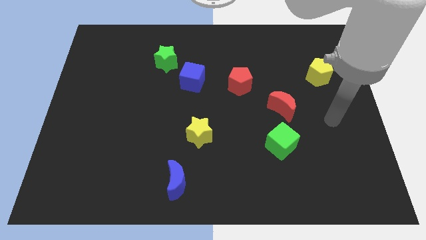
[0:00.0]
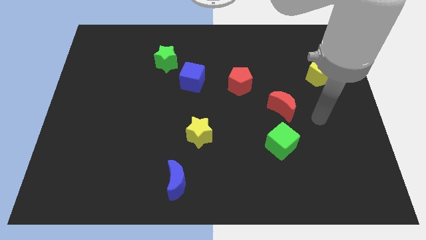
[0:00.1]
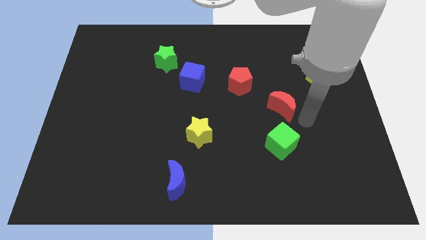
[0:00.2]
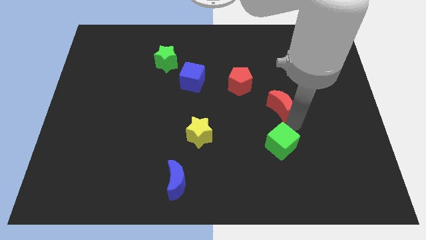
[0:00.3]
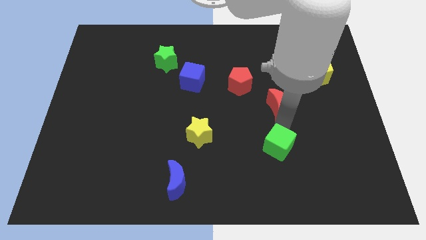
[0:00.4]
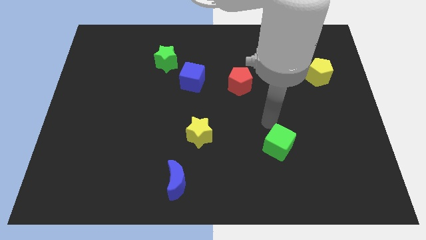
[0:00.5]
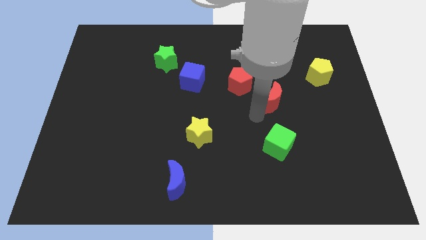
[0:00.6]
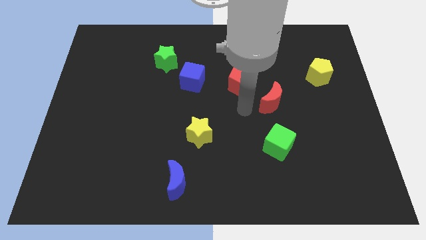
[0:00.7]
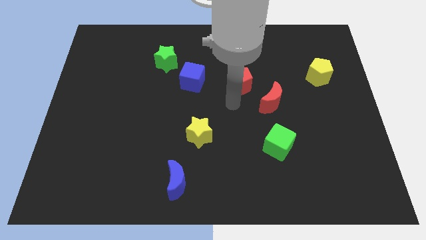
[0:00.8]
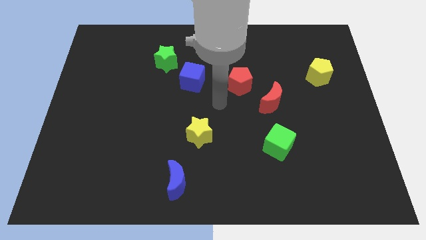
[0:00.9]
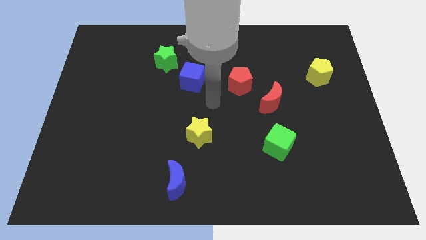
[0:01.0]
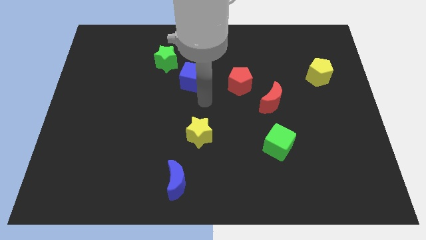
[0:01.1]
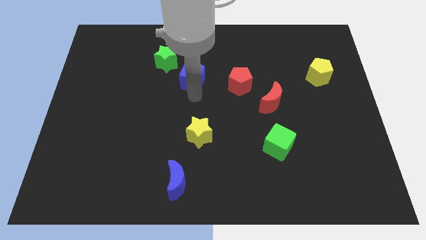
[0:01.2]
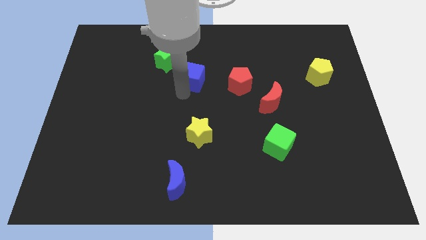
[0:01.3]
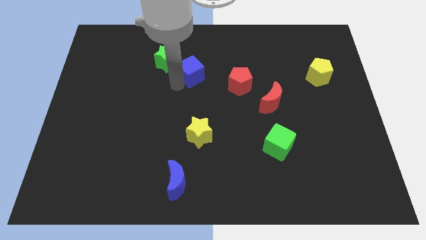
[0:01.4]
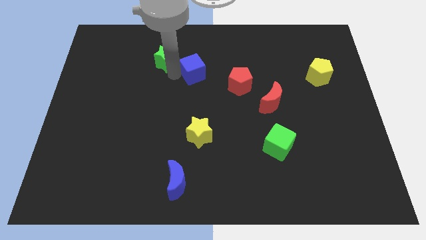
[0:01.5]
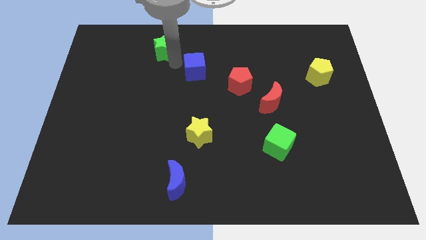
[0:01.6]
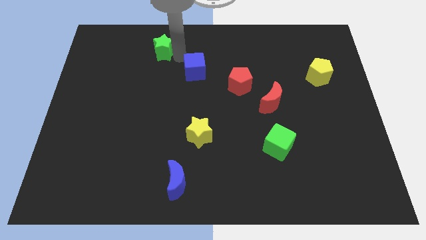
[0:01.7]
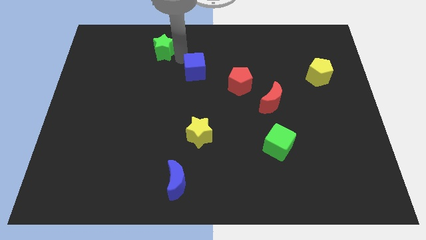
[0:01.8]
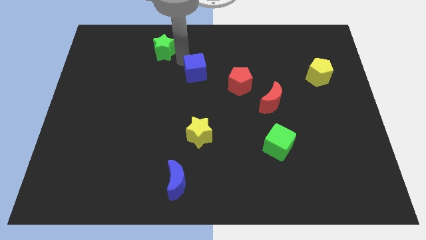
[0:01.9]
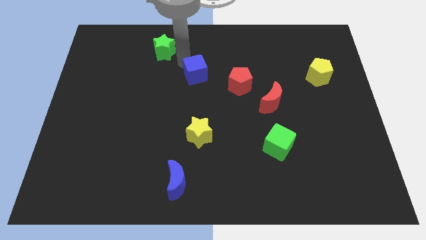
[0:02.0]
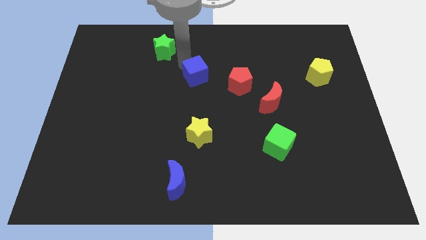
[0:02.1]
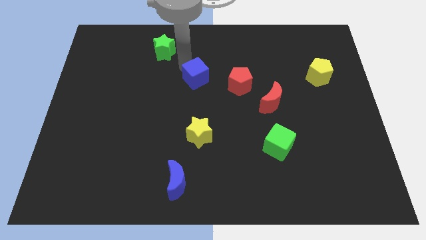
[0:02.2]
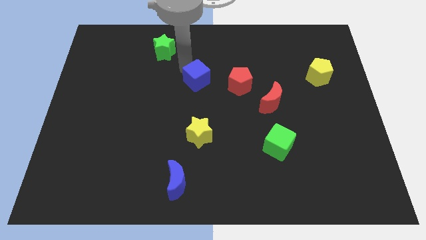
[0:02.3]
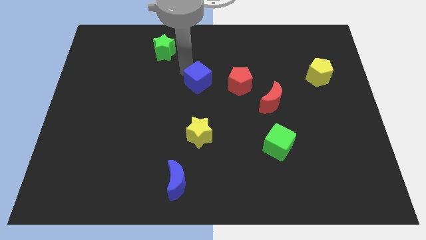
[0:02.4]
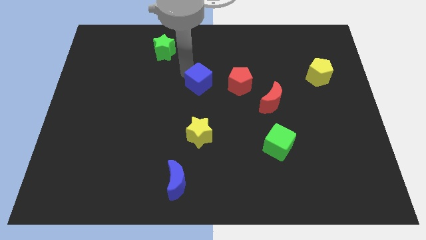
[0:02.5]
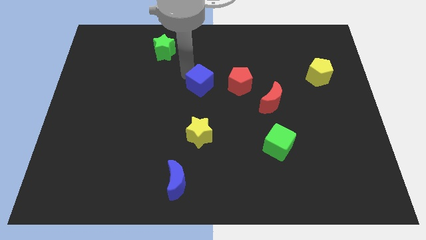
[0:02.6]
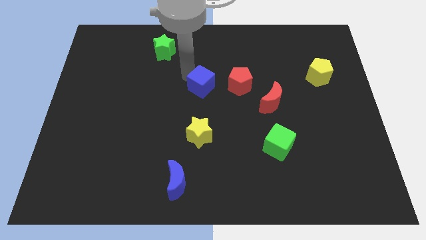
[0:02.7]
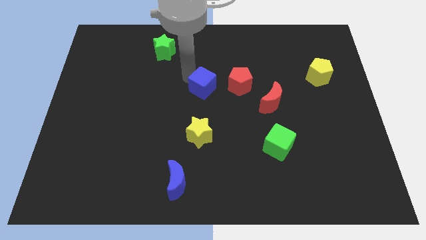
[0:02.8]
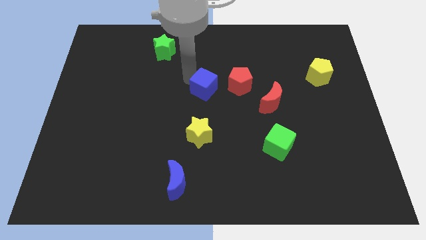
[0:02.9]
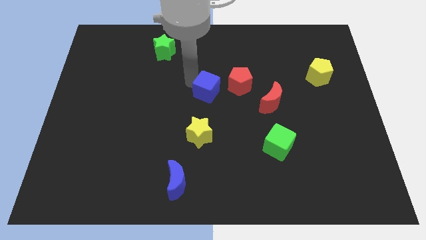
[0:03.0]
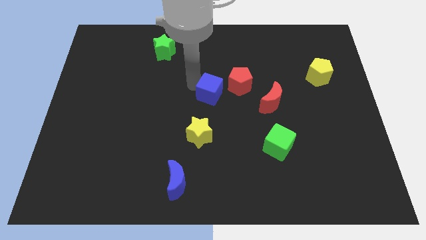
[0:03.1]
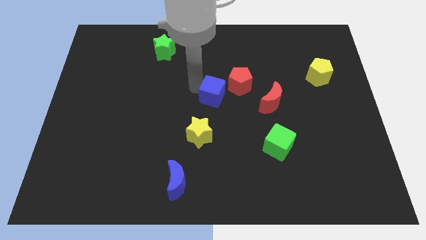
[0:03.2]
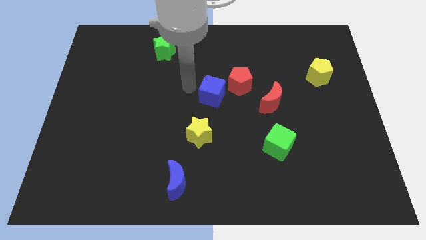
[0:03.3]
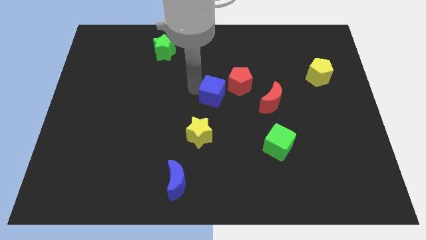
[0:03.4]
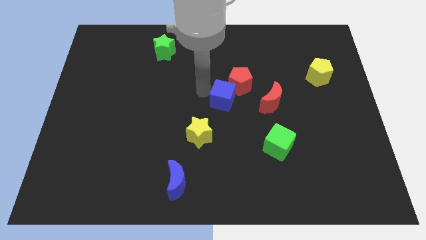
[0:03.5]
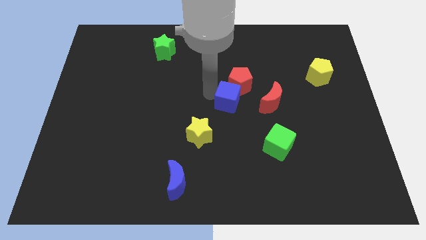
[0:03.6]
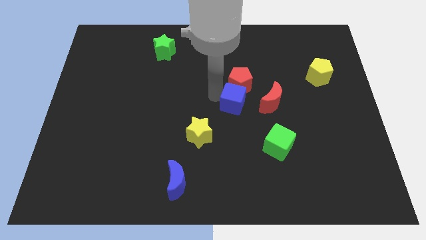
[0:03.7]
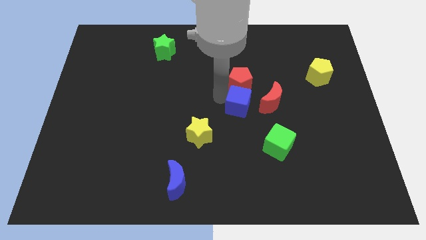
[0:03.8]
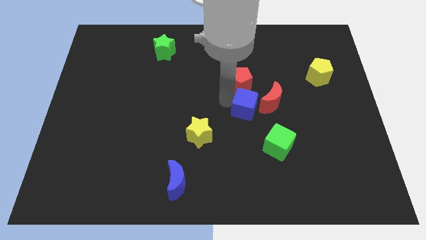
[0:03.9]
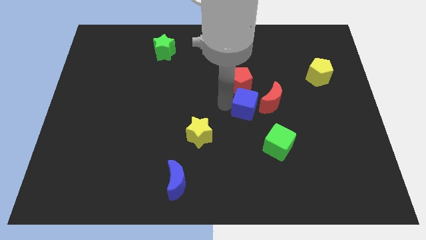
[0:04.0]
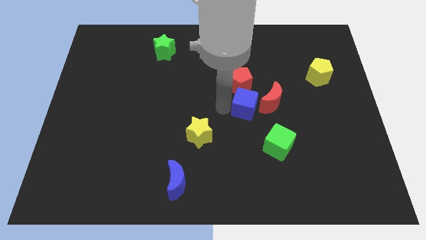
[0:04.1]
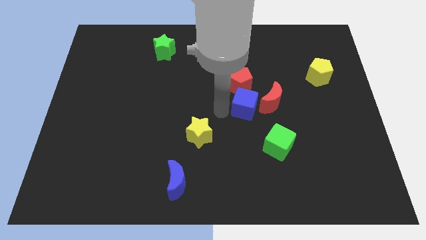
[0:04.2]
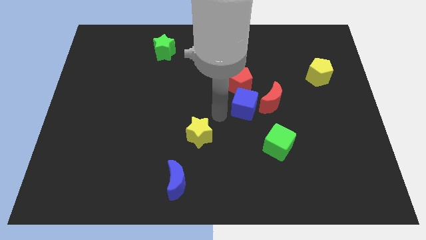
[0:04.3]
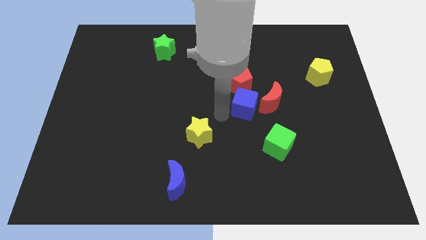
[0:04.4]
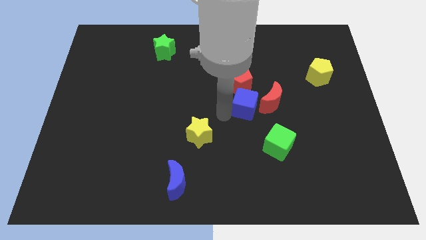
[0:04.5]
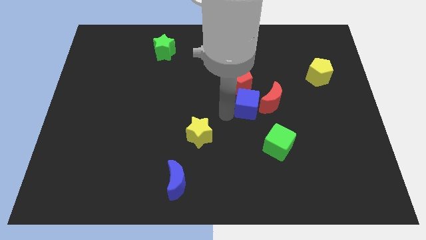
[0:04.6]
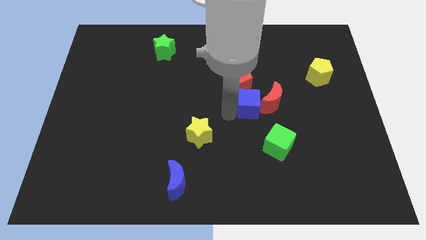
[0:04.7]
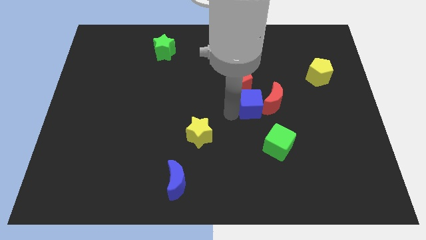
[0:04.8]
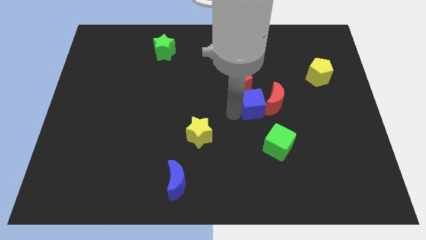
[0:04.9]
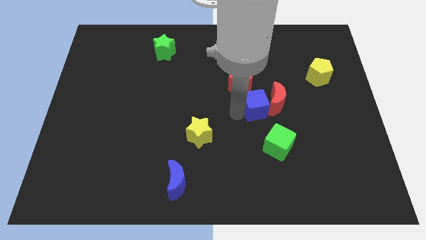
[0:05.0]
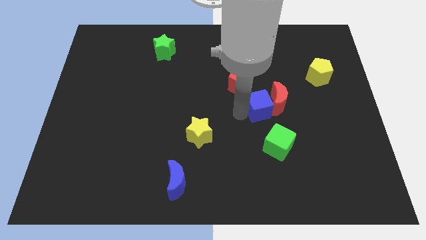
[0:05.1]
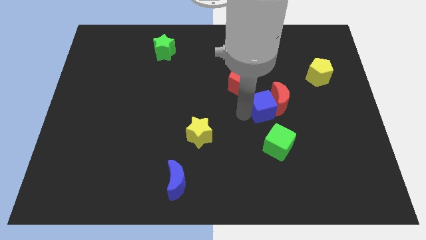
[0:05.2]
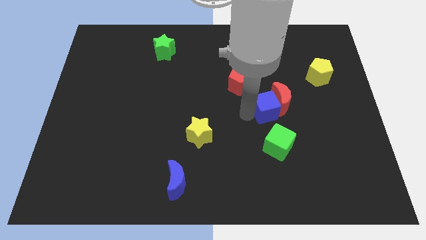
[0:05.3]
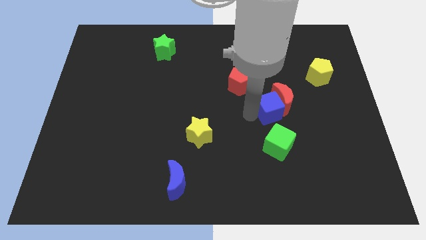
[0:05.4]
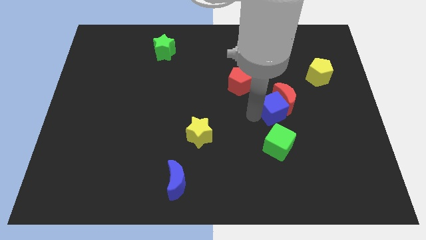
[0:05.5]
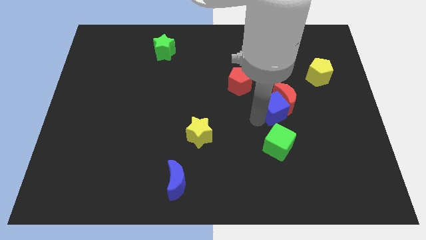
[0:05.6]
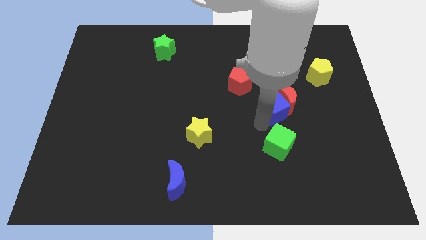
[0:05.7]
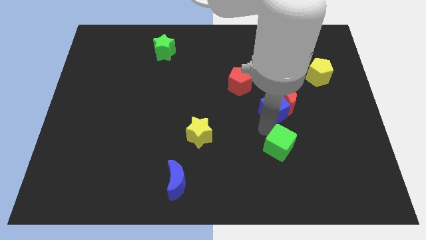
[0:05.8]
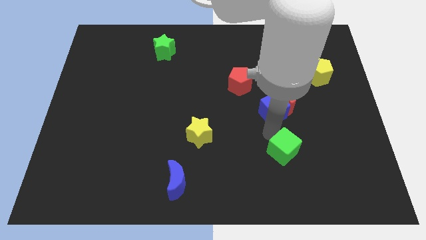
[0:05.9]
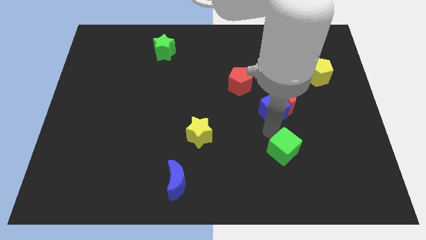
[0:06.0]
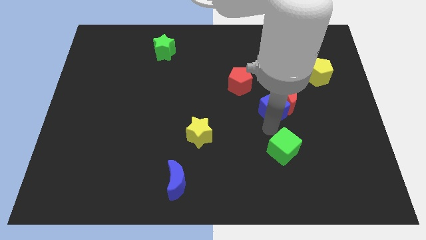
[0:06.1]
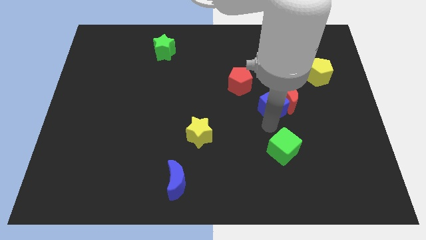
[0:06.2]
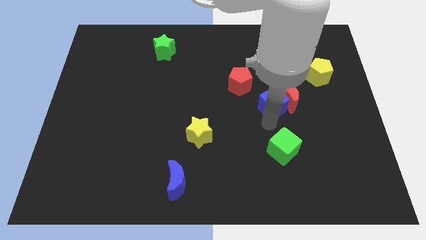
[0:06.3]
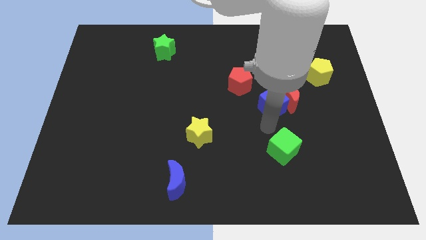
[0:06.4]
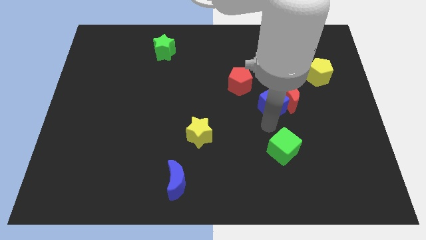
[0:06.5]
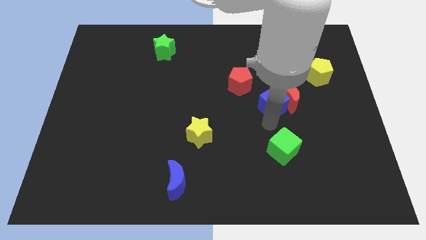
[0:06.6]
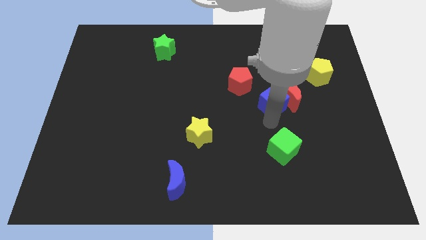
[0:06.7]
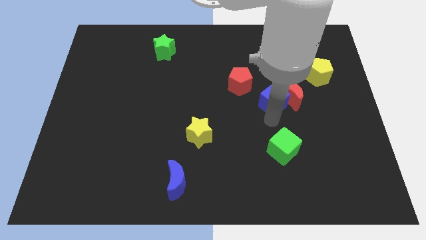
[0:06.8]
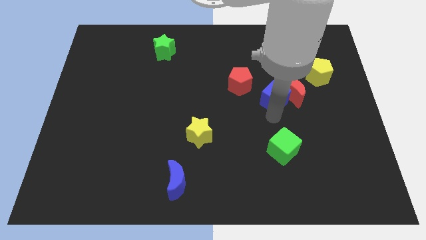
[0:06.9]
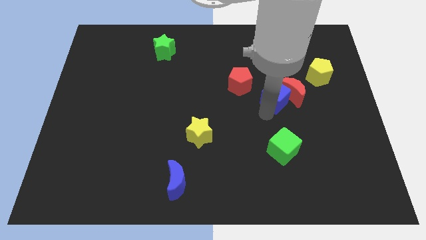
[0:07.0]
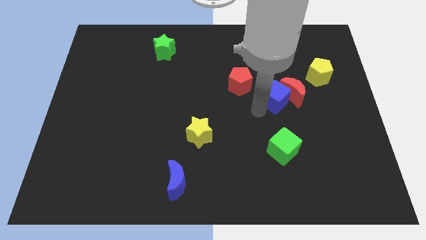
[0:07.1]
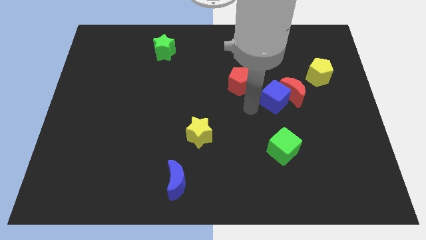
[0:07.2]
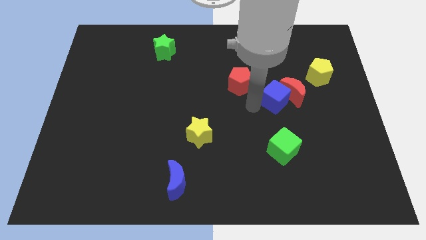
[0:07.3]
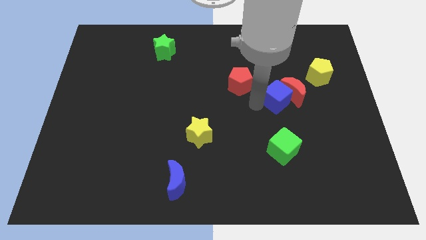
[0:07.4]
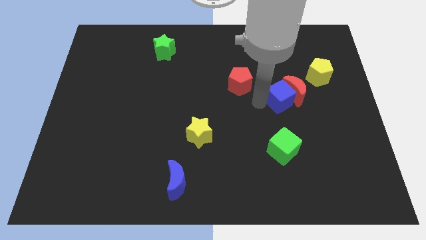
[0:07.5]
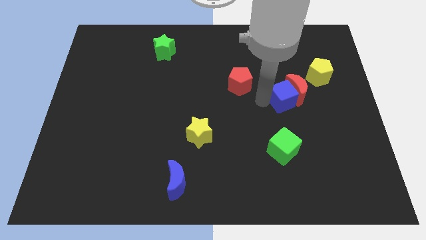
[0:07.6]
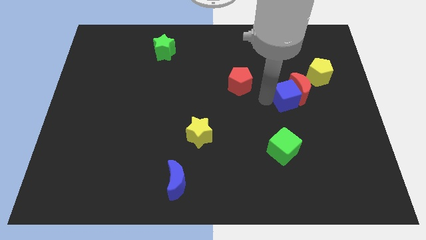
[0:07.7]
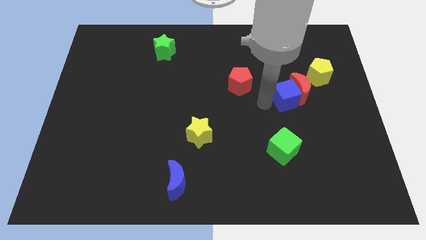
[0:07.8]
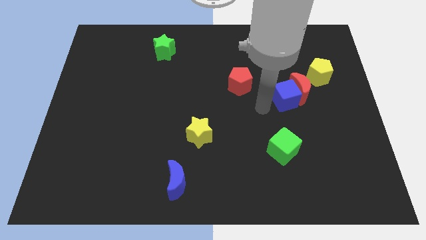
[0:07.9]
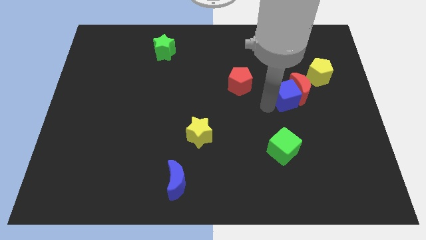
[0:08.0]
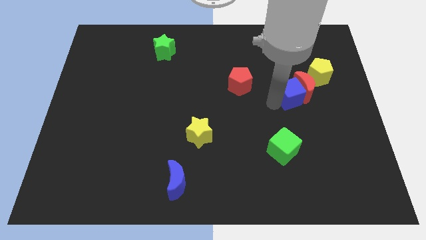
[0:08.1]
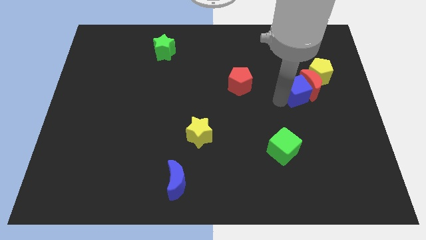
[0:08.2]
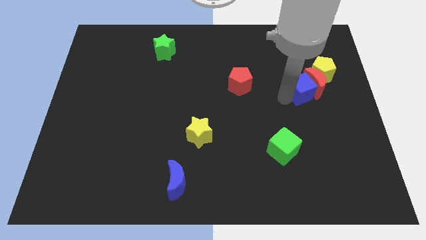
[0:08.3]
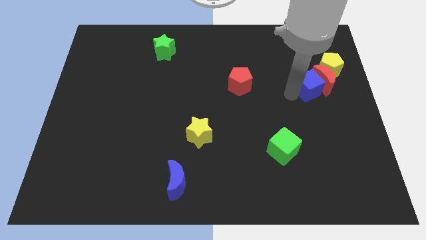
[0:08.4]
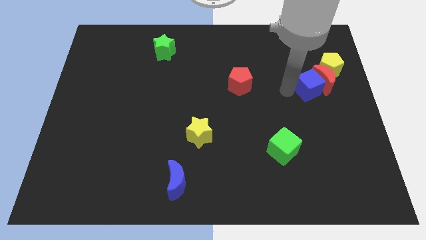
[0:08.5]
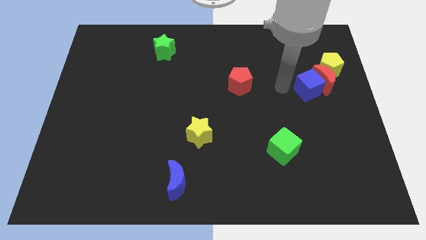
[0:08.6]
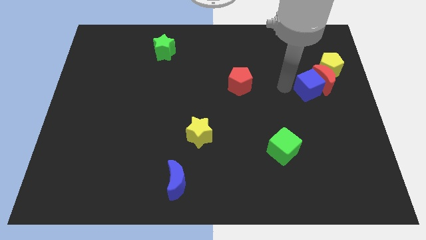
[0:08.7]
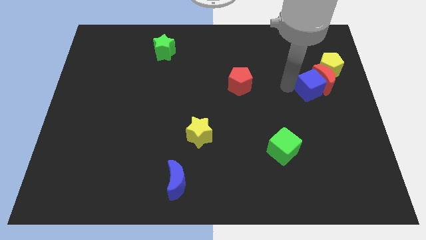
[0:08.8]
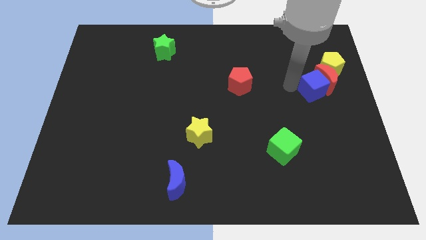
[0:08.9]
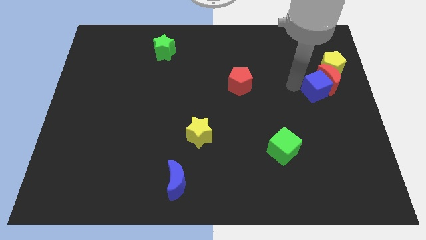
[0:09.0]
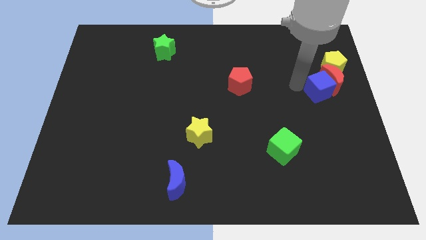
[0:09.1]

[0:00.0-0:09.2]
move the blue cube to the center right
